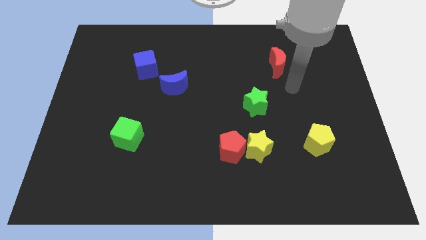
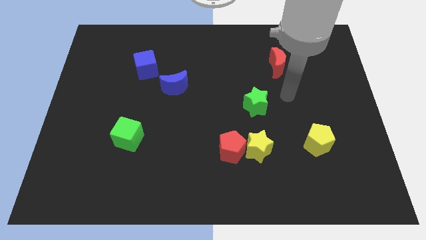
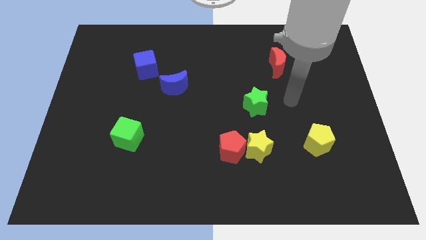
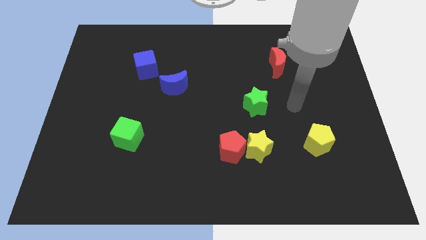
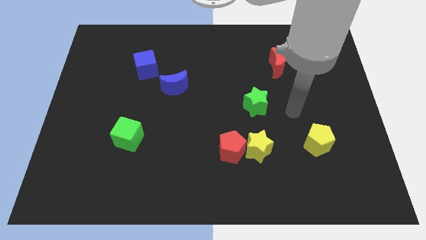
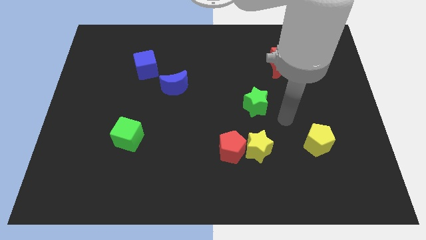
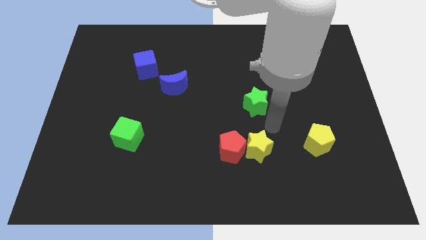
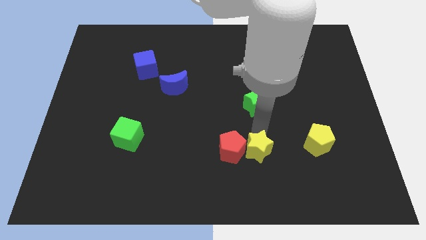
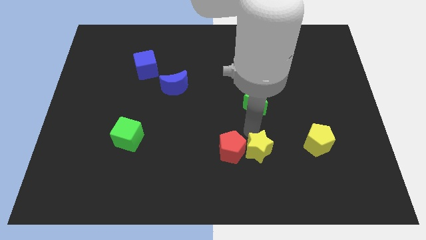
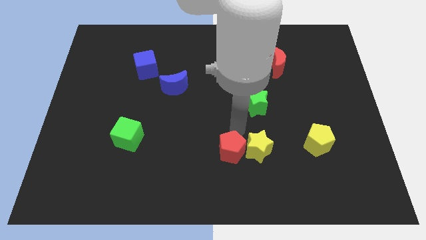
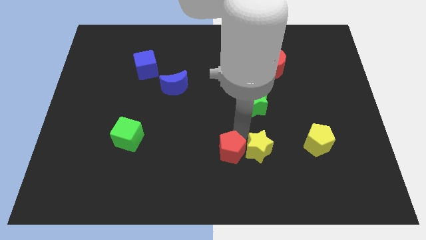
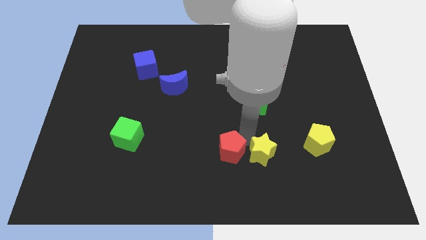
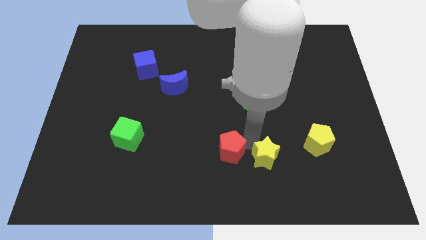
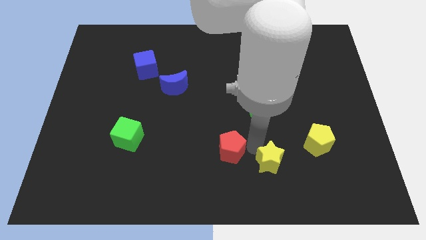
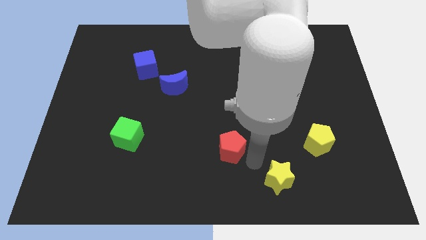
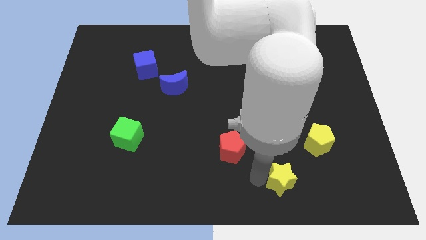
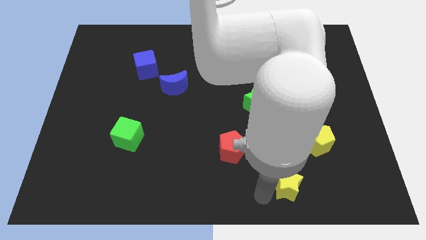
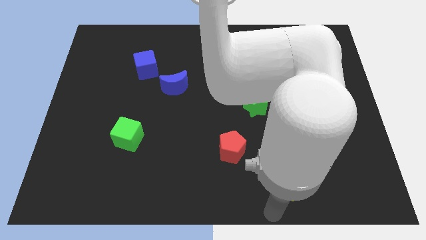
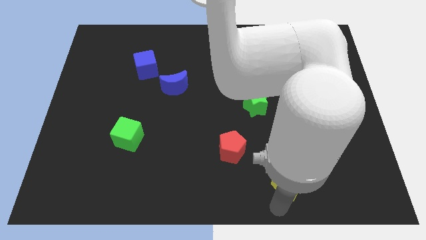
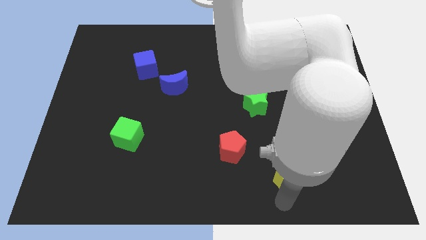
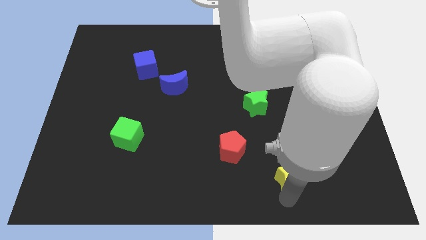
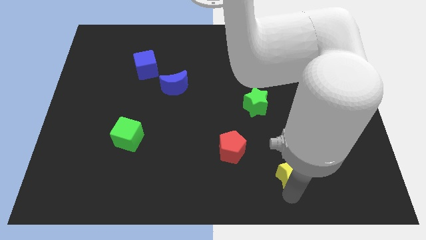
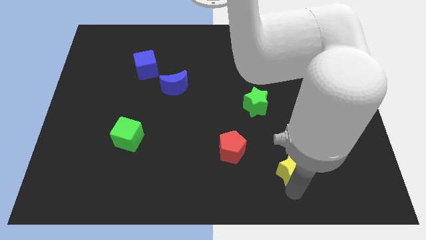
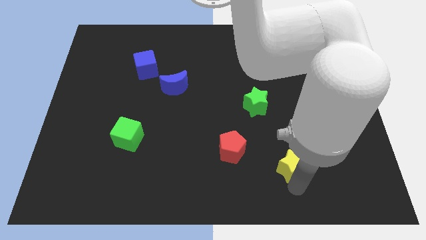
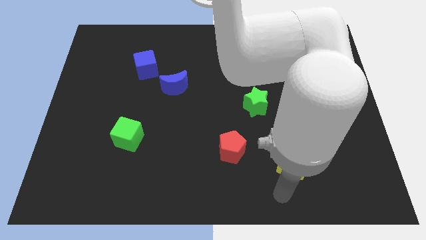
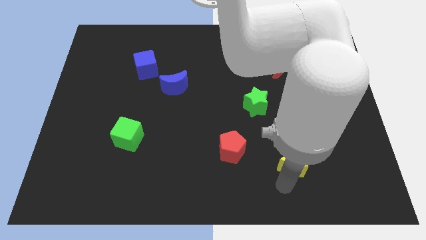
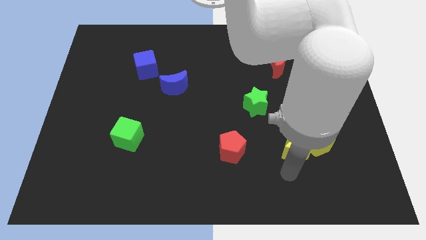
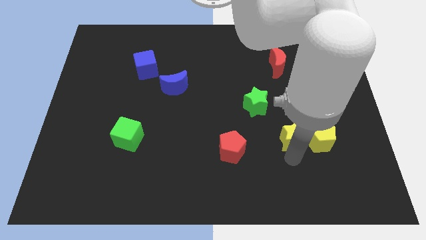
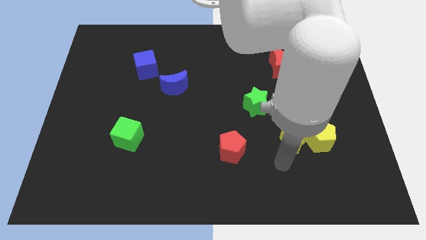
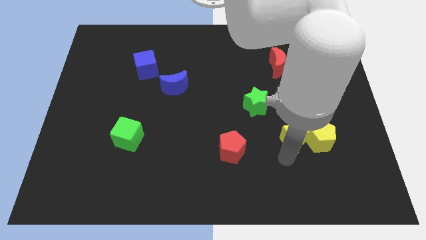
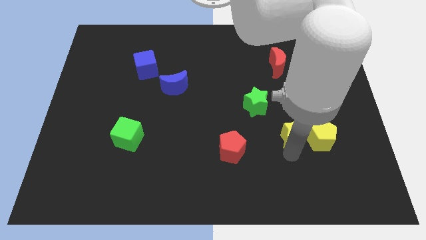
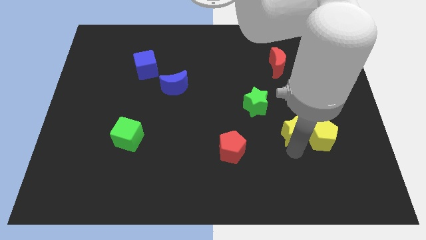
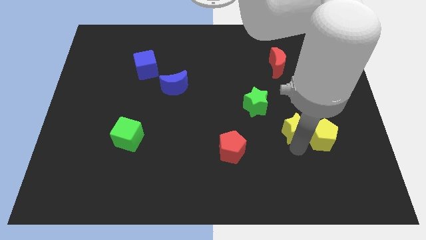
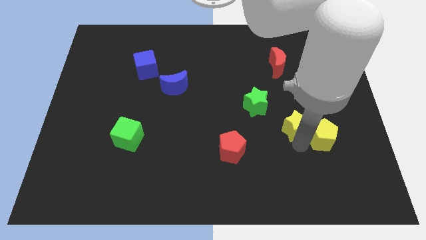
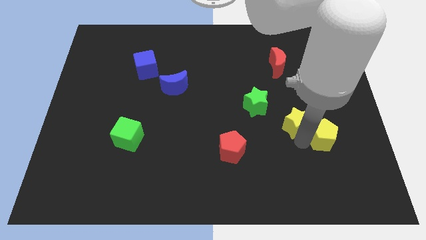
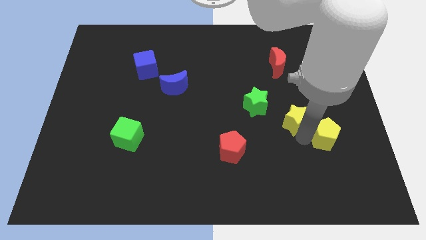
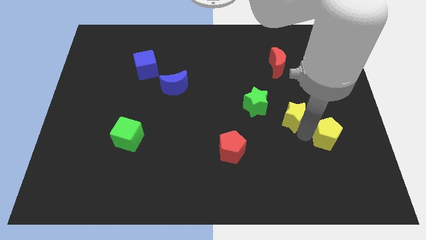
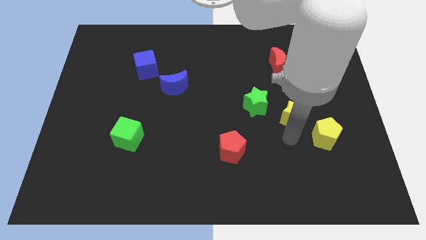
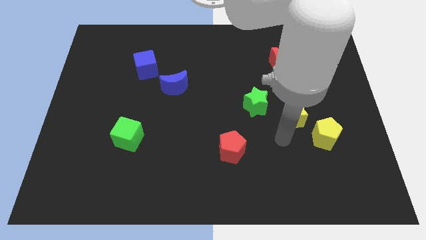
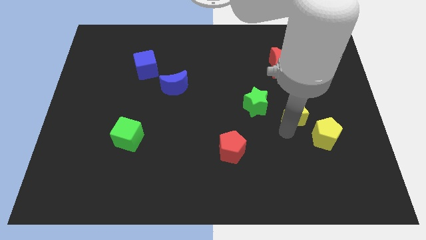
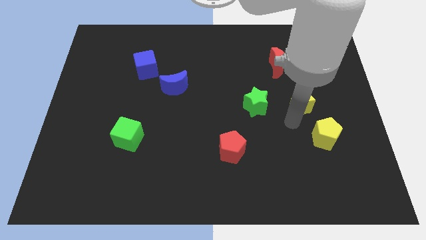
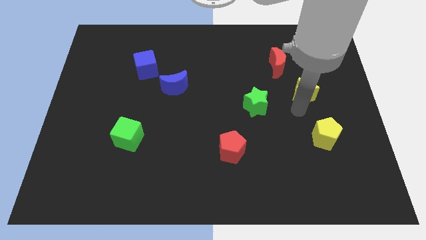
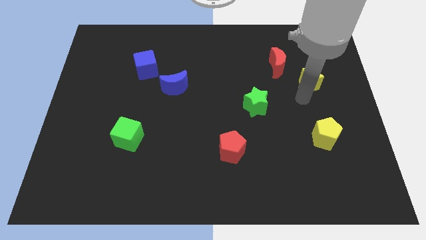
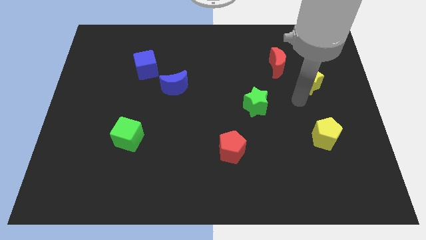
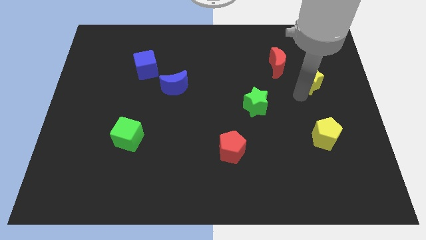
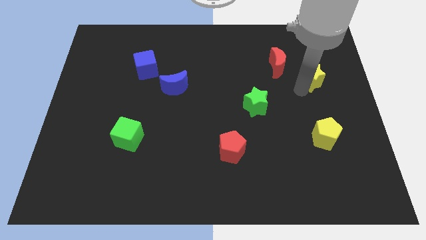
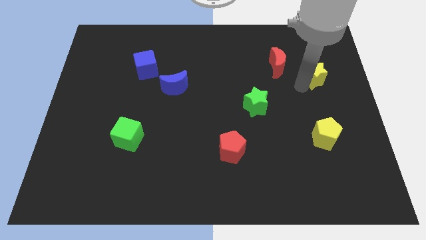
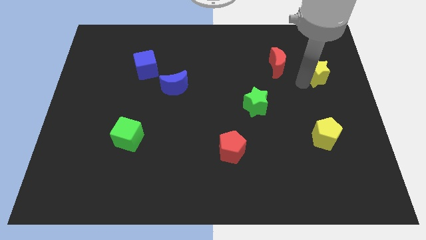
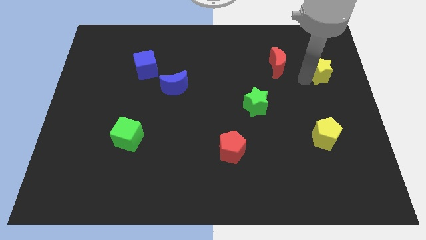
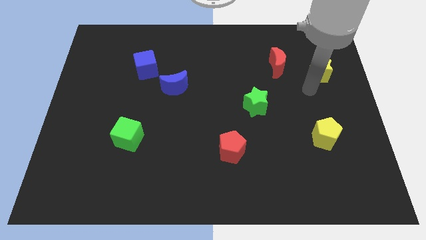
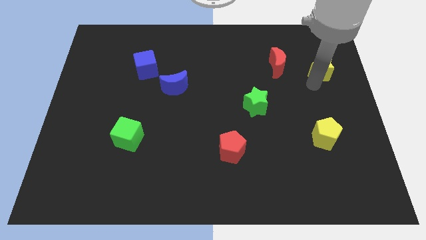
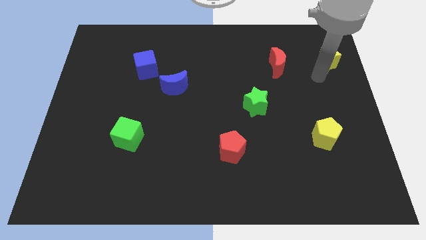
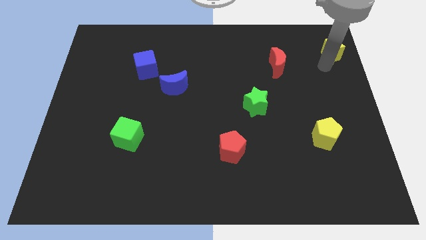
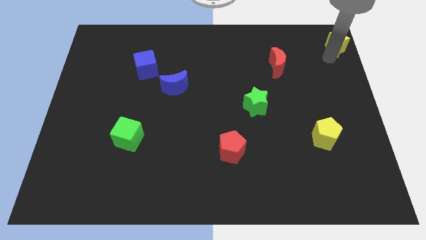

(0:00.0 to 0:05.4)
put the yellow star to the top right corner

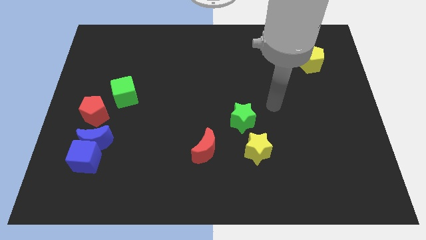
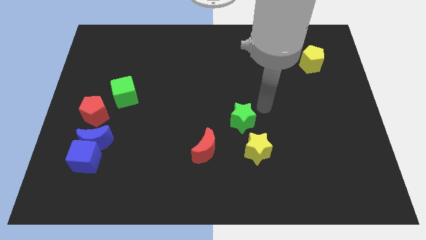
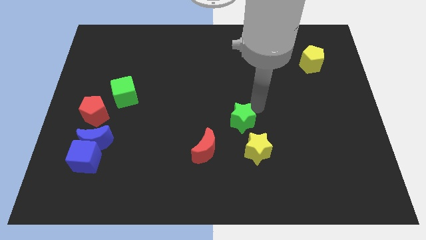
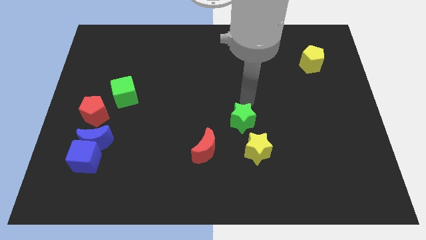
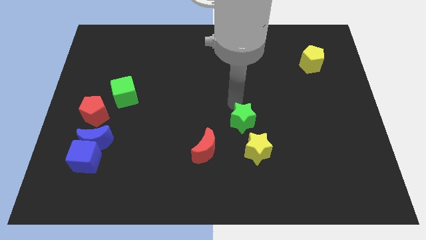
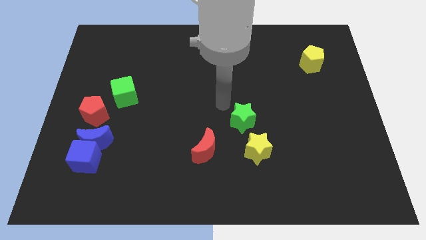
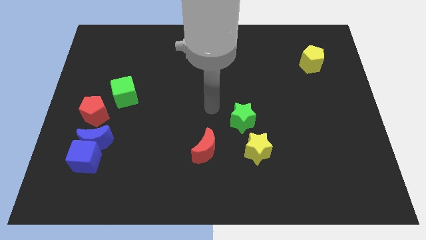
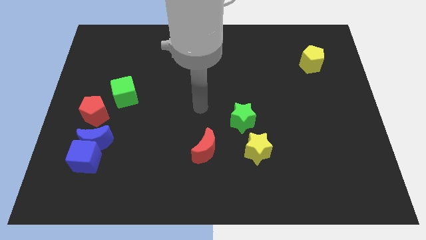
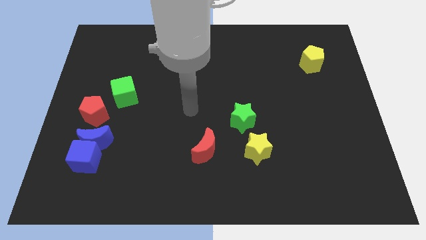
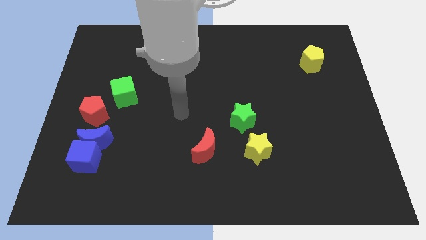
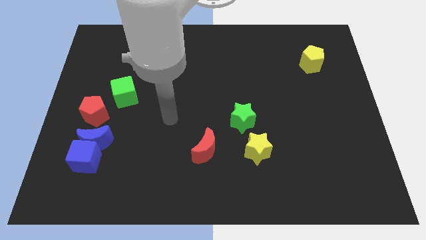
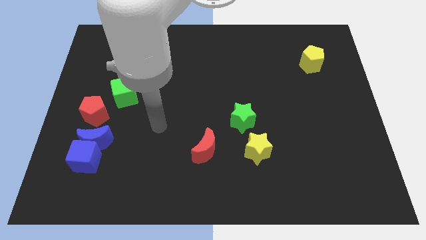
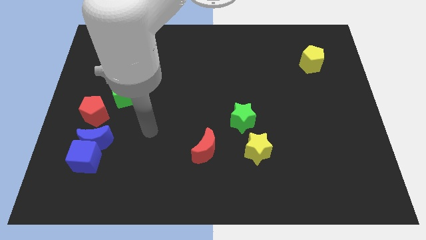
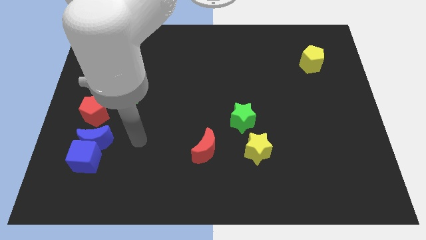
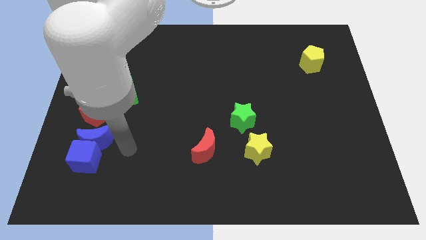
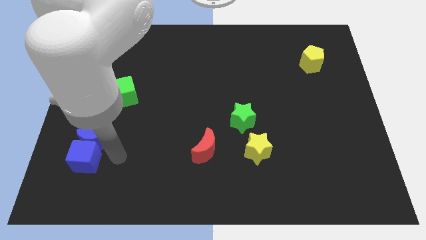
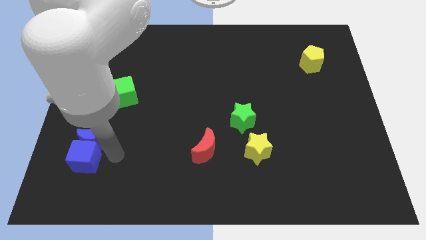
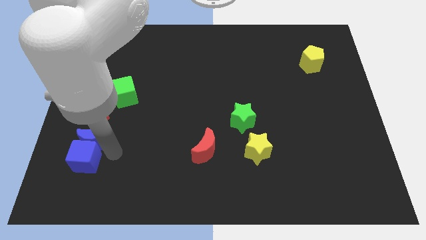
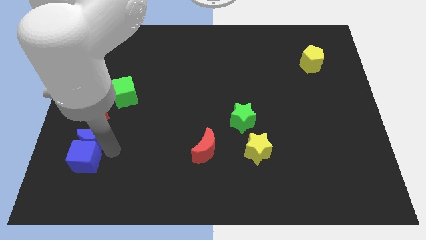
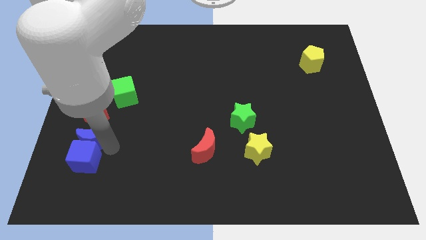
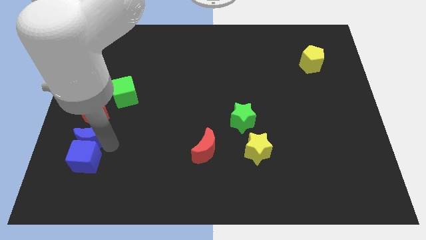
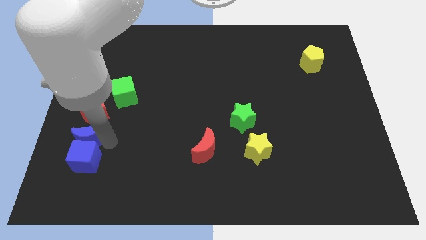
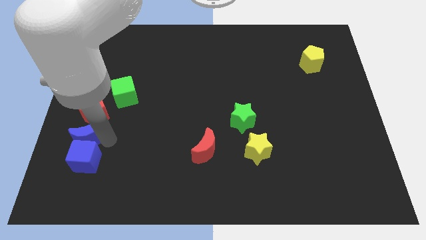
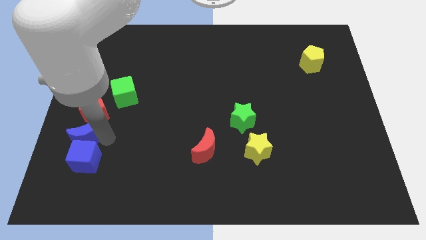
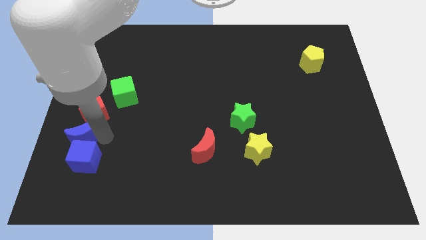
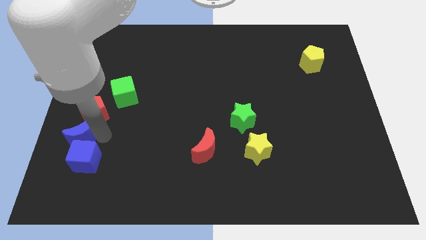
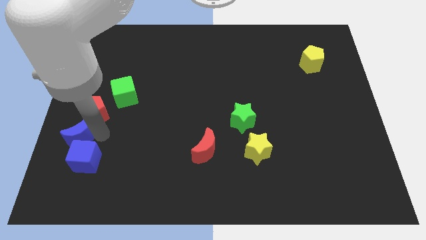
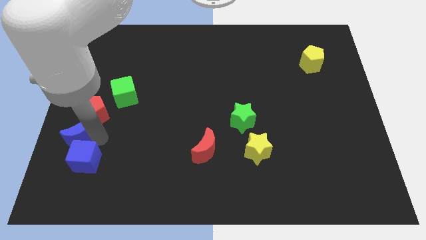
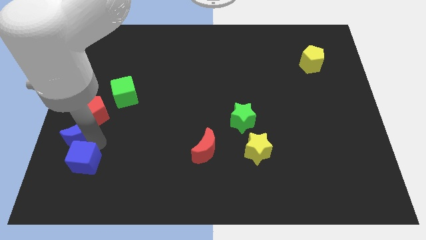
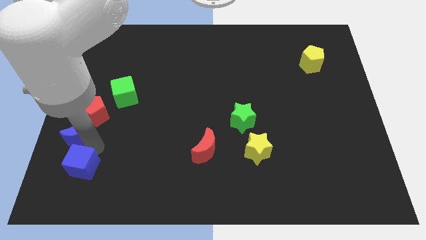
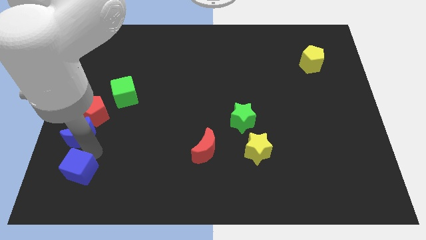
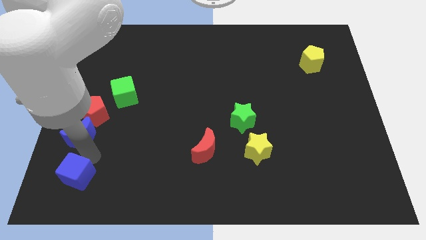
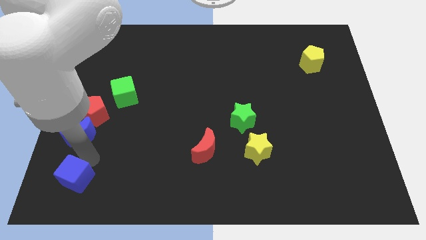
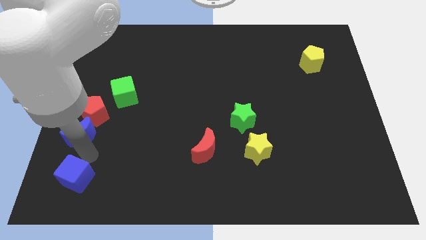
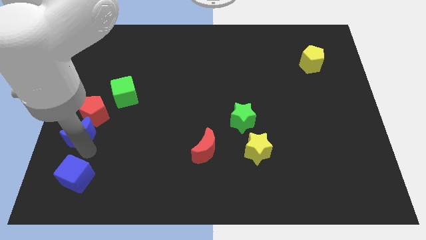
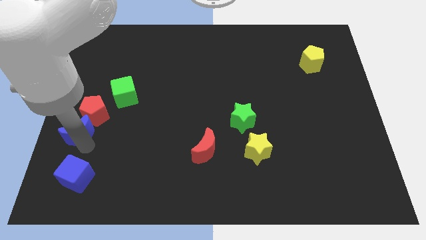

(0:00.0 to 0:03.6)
push the blue moon to the center left
